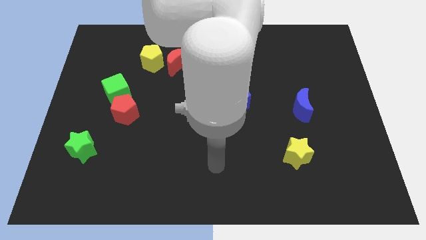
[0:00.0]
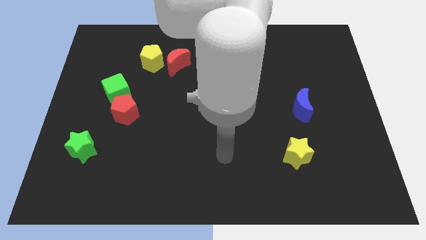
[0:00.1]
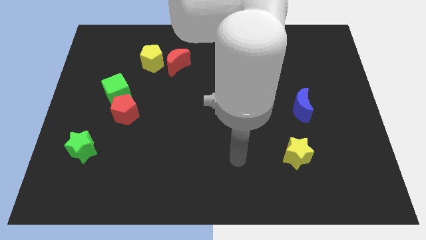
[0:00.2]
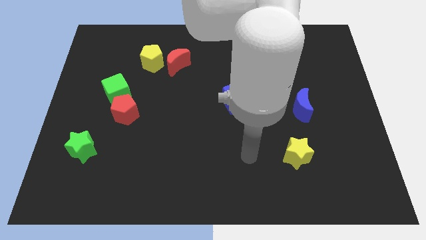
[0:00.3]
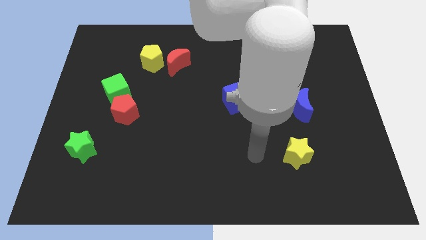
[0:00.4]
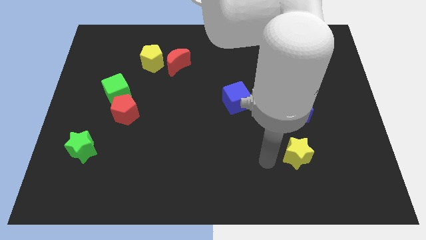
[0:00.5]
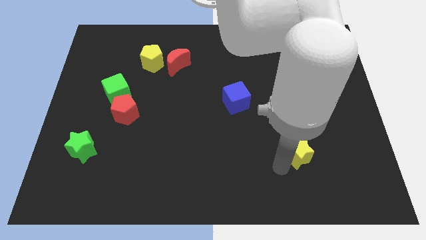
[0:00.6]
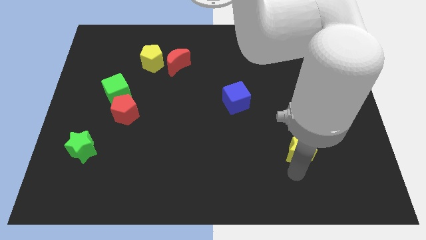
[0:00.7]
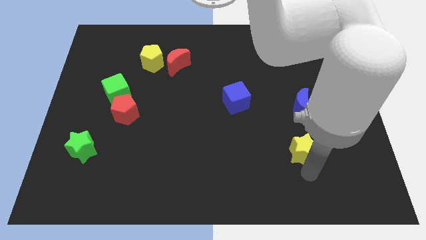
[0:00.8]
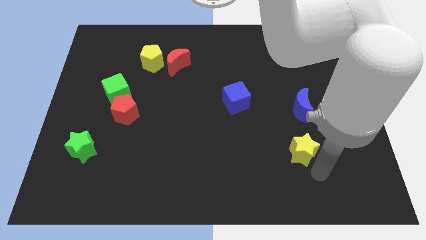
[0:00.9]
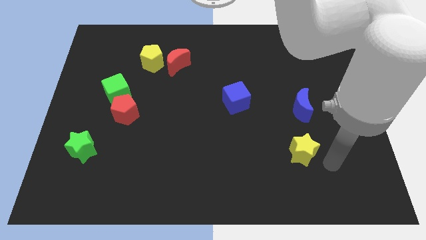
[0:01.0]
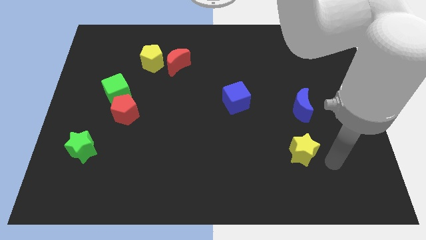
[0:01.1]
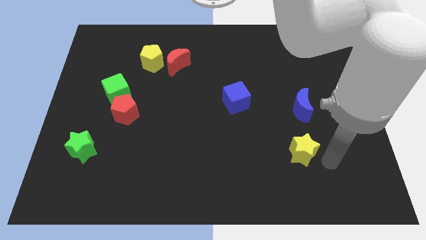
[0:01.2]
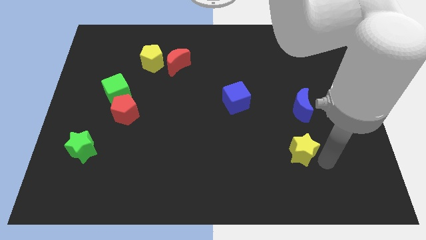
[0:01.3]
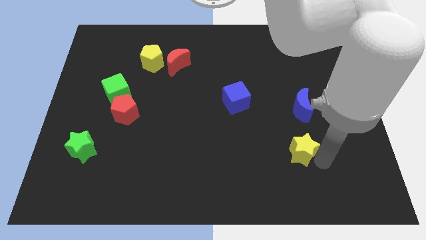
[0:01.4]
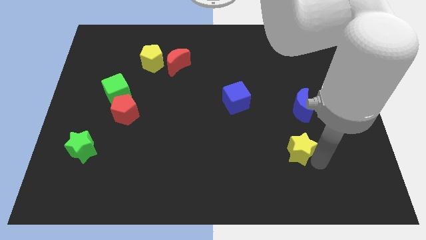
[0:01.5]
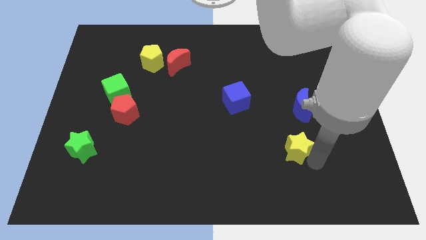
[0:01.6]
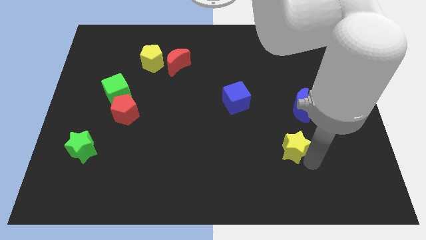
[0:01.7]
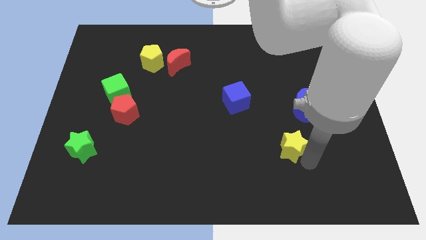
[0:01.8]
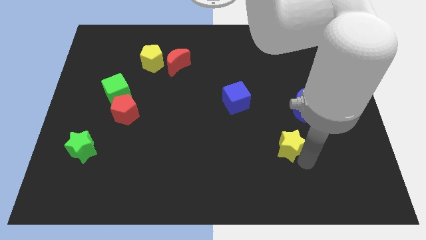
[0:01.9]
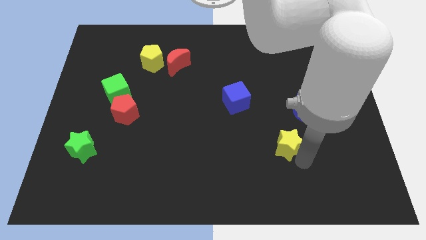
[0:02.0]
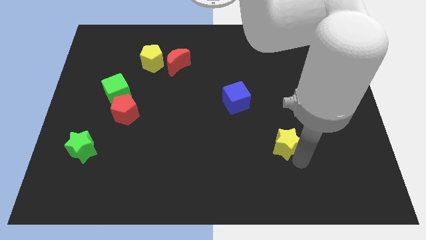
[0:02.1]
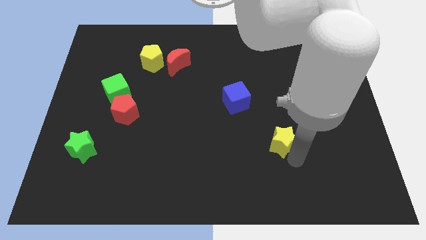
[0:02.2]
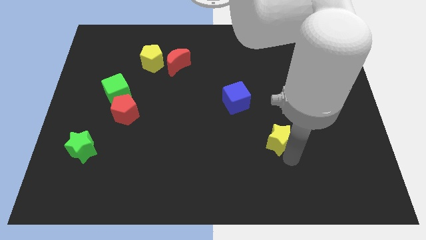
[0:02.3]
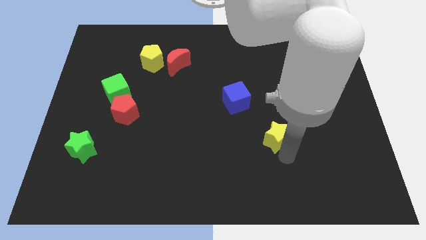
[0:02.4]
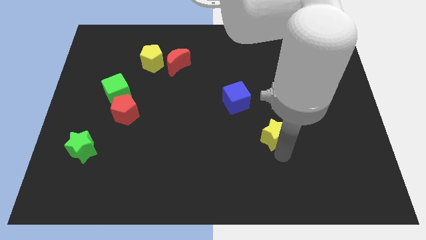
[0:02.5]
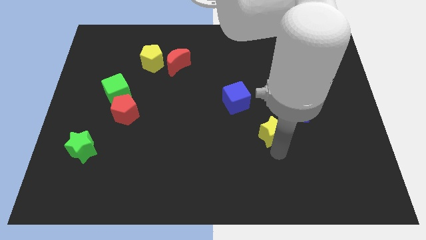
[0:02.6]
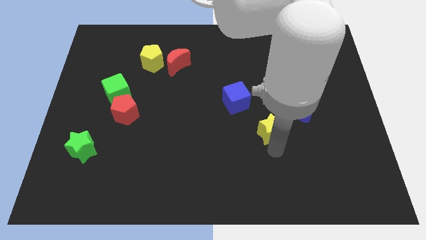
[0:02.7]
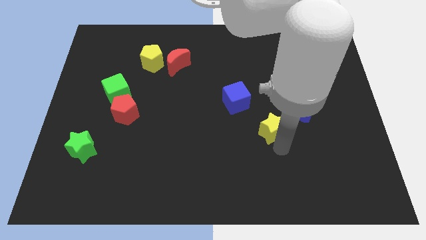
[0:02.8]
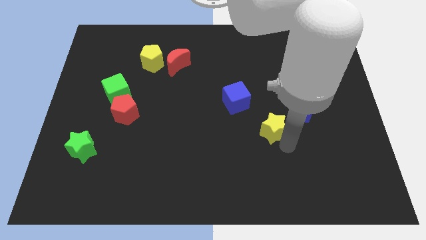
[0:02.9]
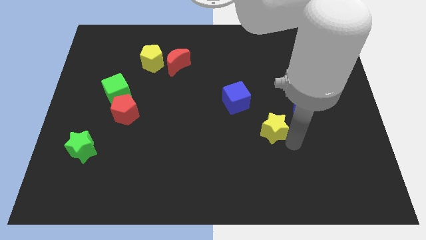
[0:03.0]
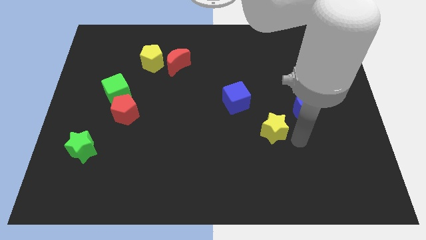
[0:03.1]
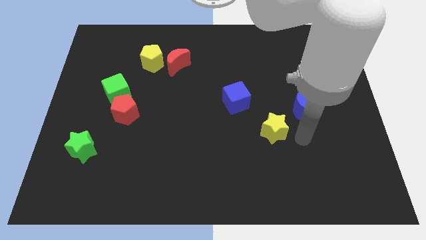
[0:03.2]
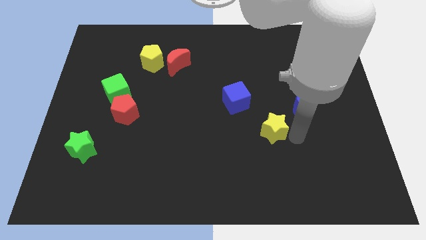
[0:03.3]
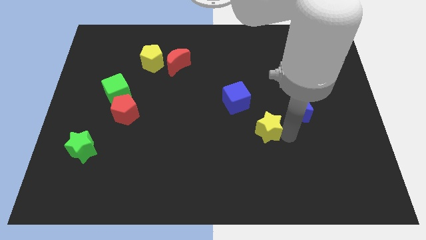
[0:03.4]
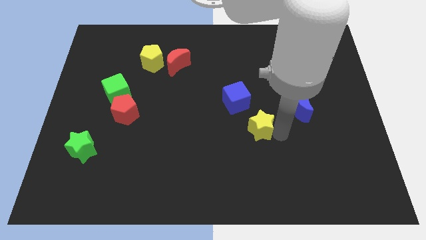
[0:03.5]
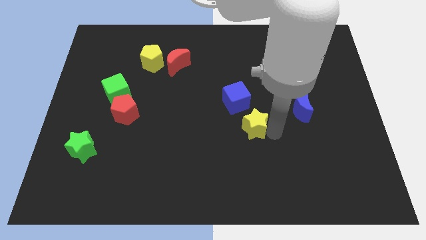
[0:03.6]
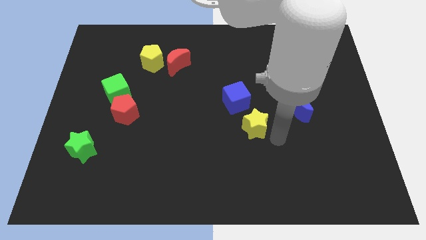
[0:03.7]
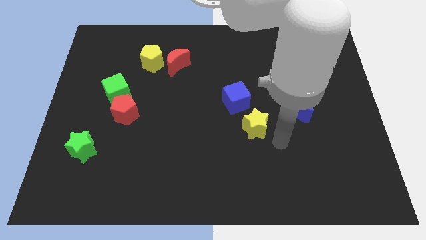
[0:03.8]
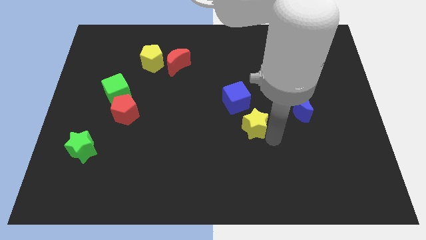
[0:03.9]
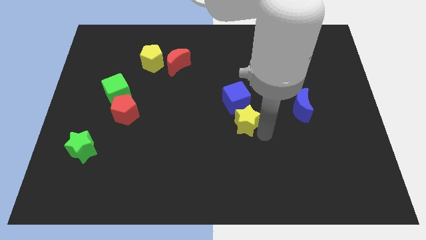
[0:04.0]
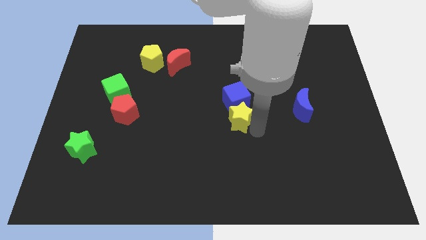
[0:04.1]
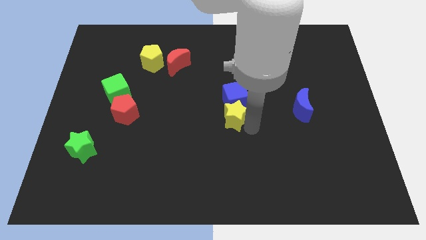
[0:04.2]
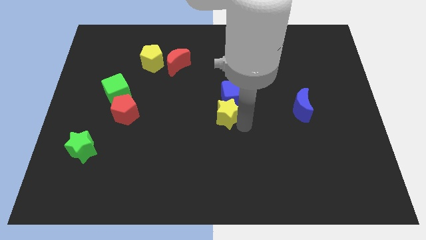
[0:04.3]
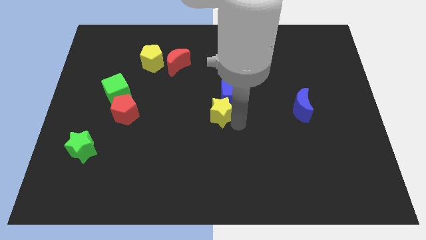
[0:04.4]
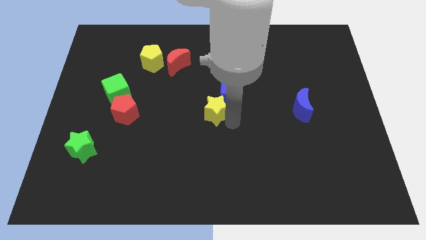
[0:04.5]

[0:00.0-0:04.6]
move the yellow star upwards and to the left diagonally

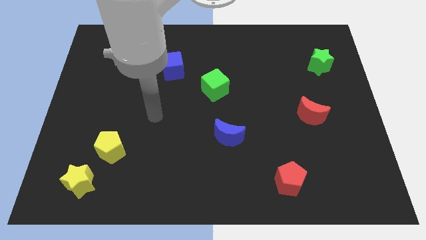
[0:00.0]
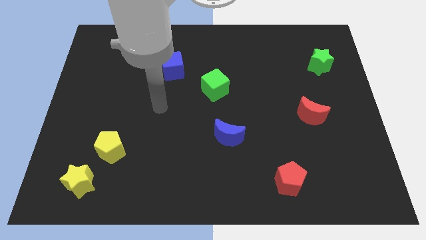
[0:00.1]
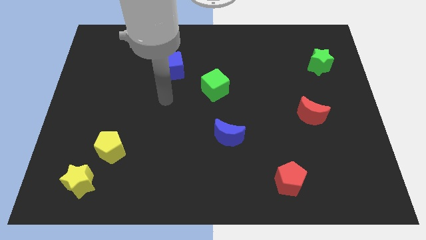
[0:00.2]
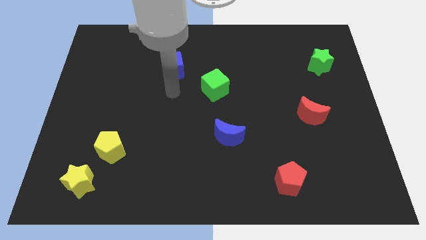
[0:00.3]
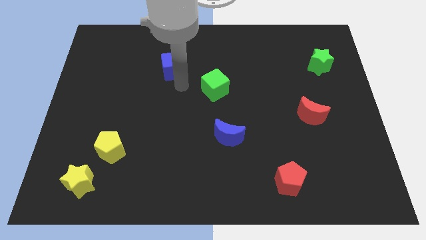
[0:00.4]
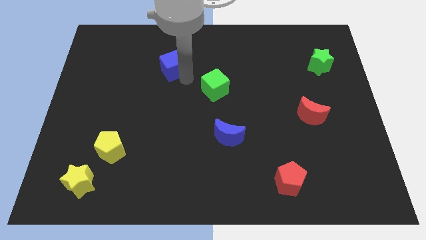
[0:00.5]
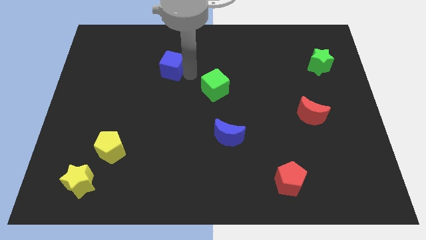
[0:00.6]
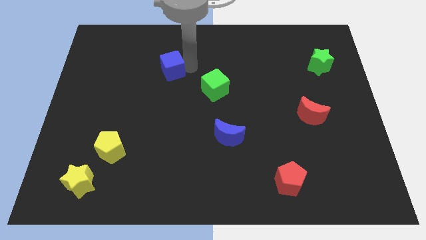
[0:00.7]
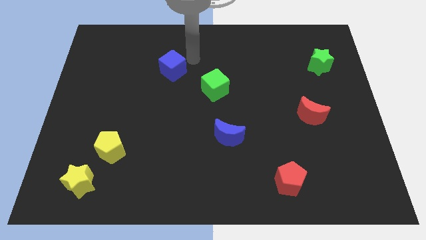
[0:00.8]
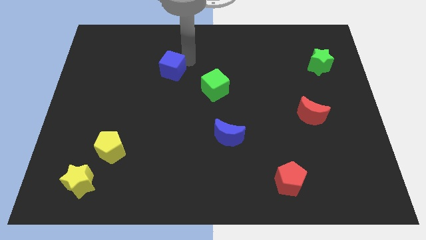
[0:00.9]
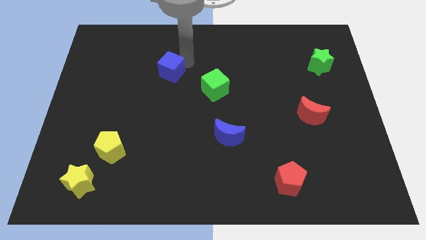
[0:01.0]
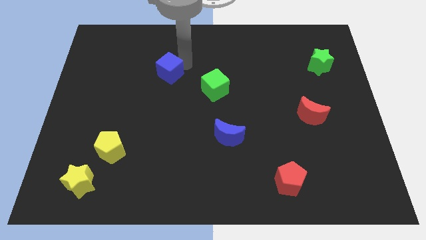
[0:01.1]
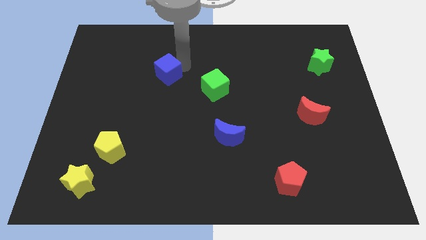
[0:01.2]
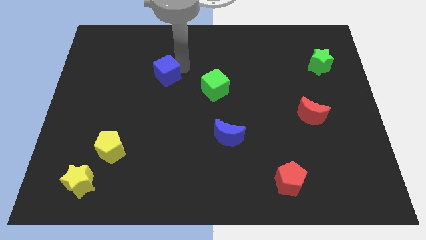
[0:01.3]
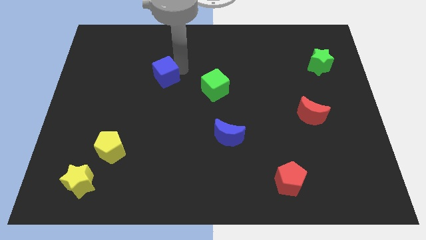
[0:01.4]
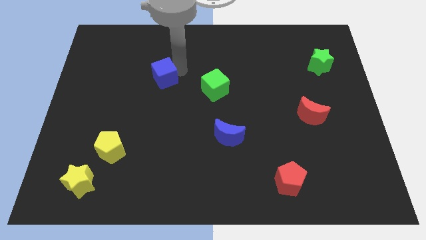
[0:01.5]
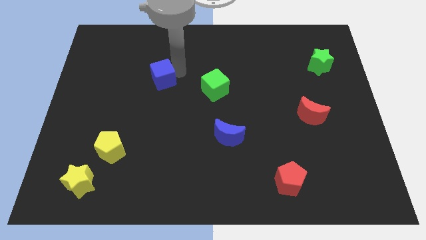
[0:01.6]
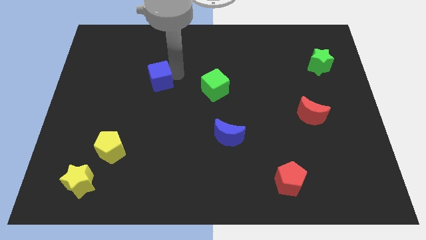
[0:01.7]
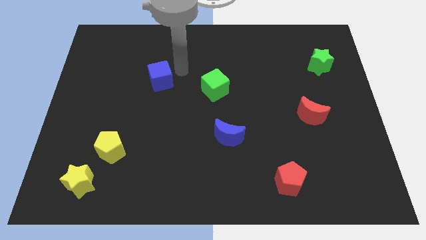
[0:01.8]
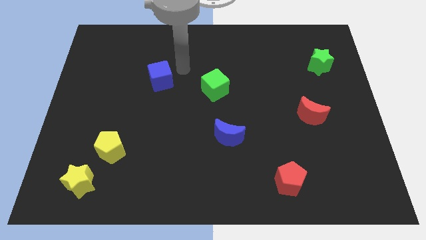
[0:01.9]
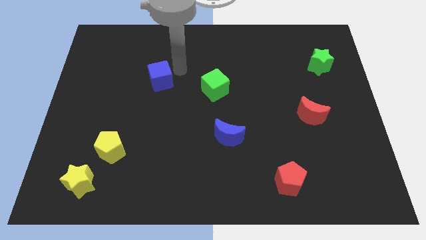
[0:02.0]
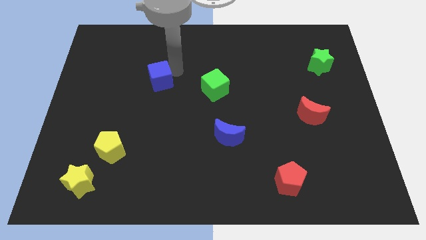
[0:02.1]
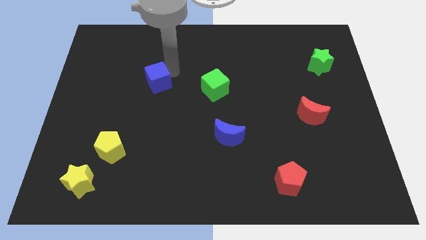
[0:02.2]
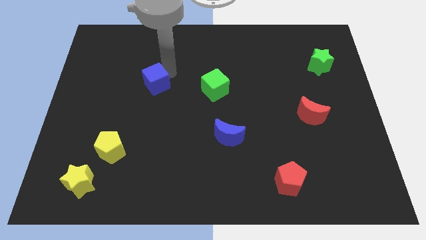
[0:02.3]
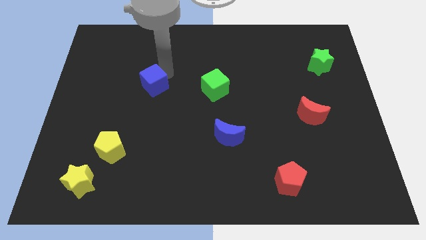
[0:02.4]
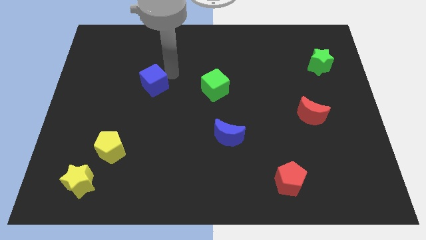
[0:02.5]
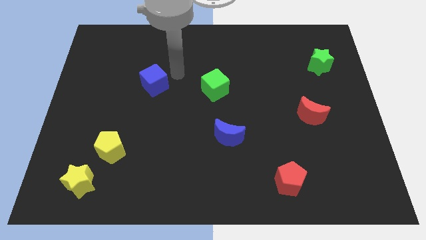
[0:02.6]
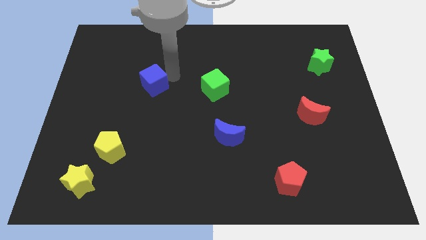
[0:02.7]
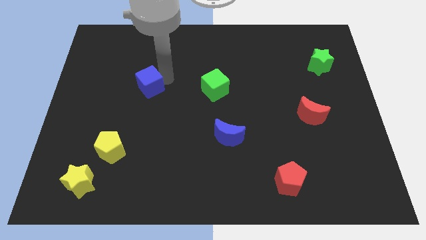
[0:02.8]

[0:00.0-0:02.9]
slightly slide the blue cube down and to the left

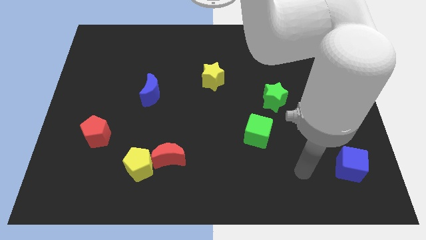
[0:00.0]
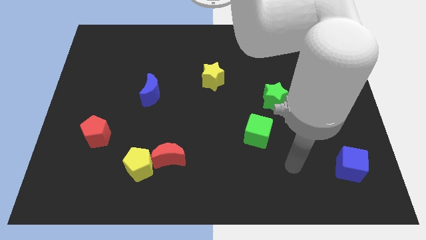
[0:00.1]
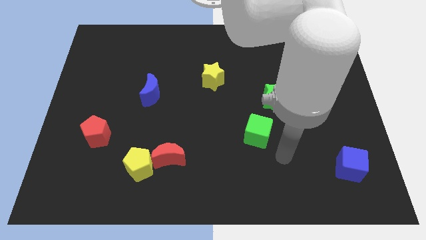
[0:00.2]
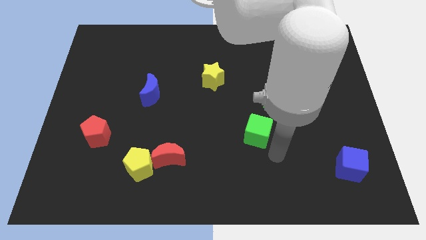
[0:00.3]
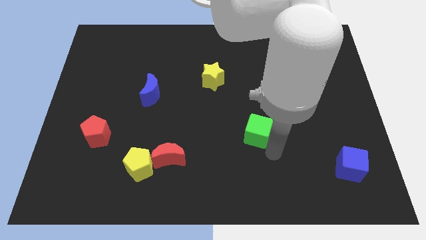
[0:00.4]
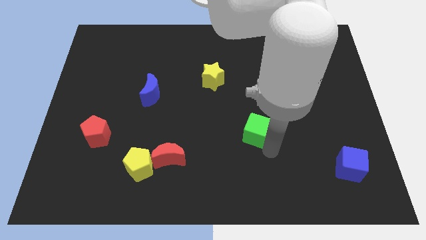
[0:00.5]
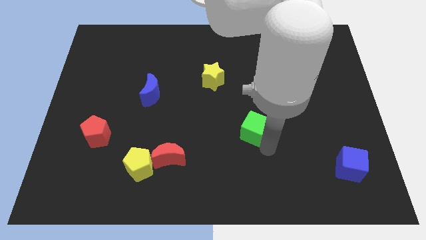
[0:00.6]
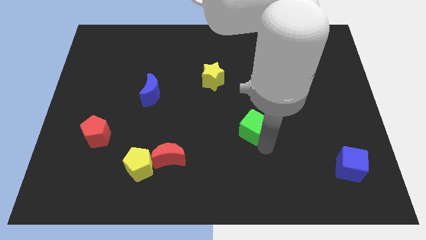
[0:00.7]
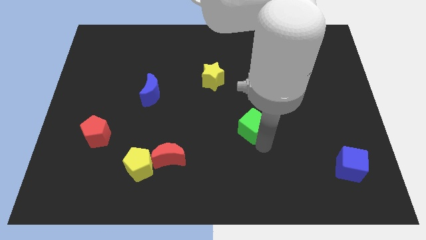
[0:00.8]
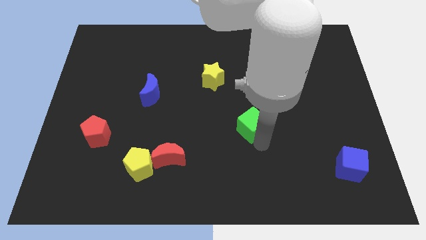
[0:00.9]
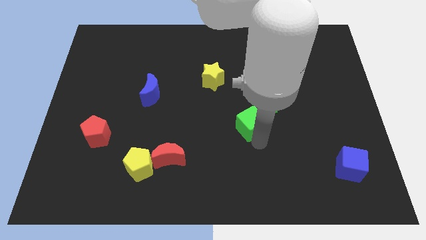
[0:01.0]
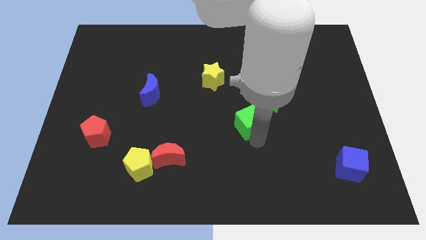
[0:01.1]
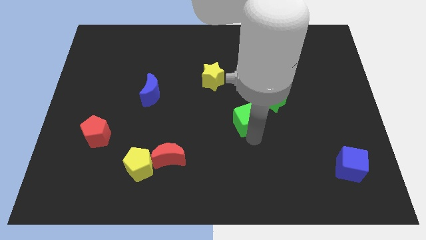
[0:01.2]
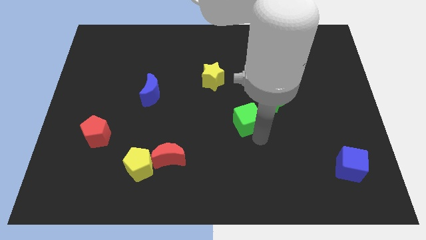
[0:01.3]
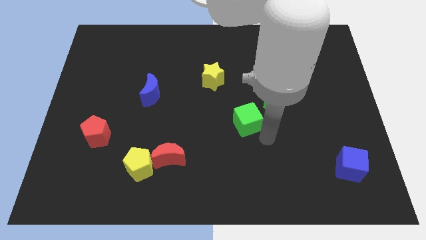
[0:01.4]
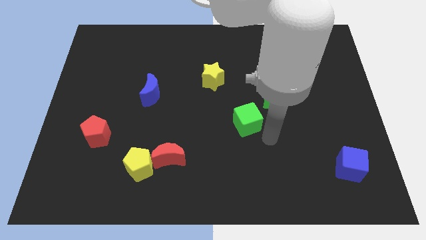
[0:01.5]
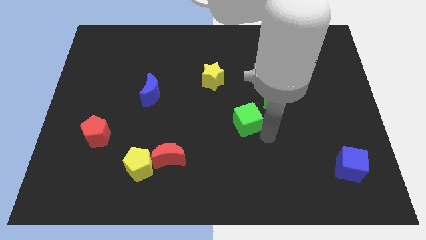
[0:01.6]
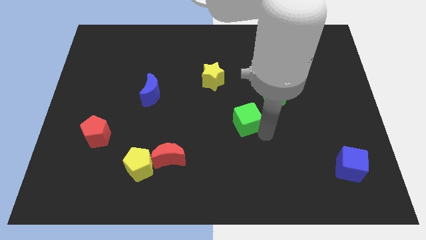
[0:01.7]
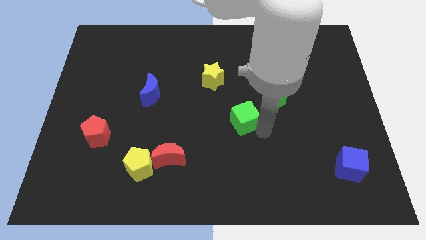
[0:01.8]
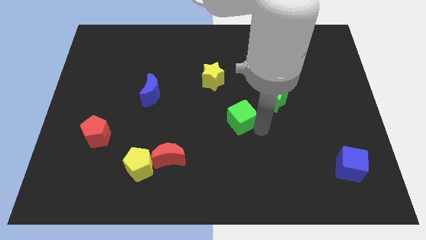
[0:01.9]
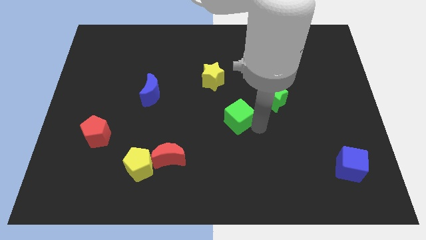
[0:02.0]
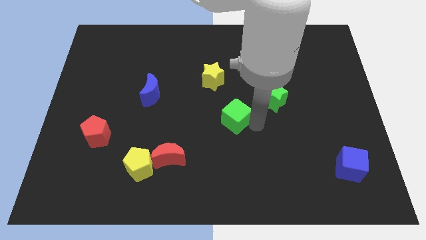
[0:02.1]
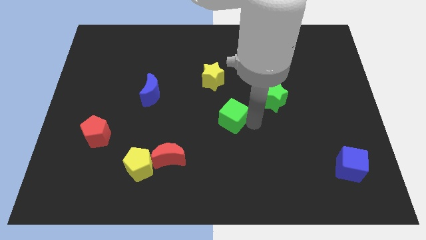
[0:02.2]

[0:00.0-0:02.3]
slightly slide the green cube upwards and then to the left
